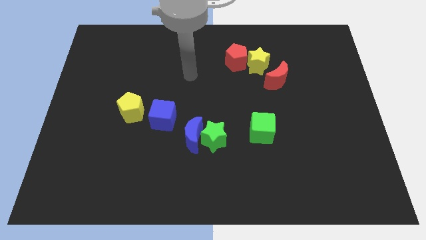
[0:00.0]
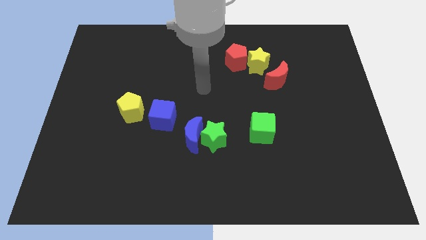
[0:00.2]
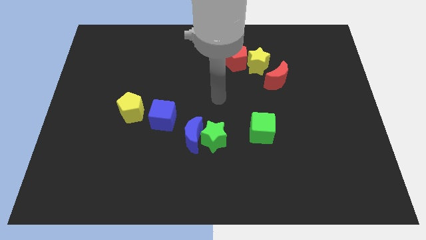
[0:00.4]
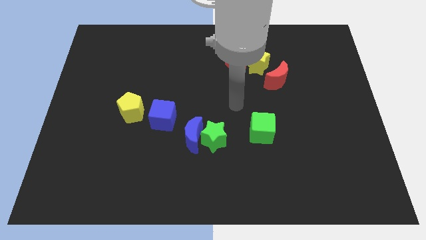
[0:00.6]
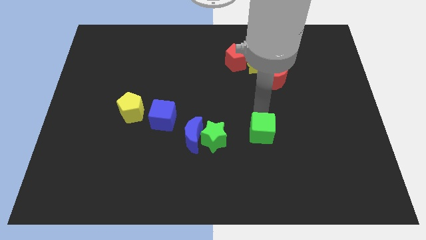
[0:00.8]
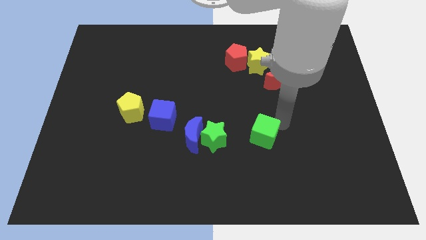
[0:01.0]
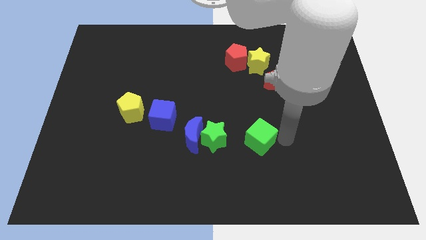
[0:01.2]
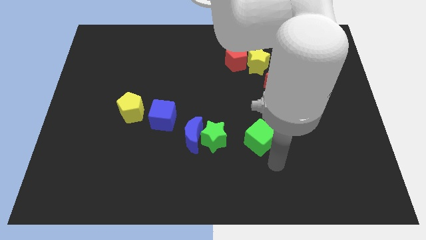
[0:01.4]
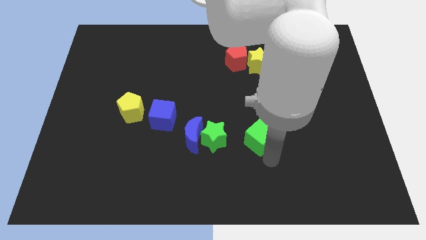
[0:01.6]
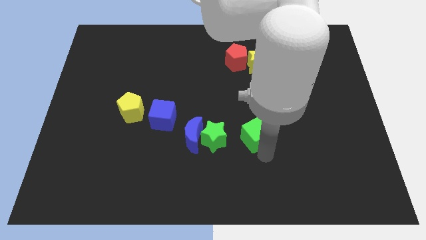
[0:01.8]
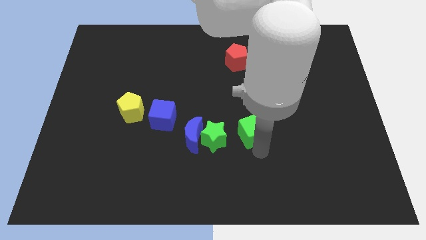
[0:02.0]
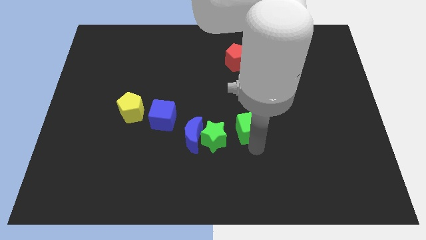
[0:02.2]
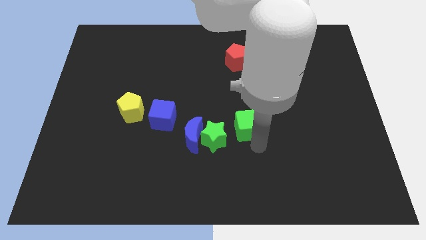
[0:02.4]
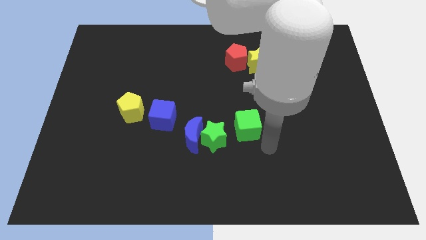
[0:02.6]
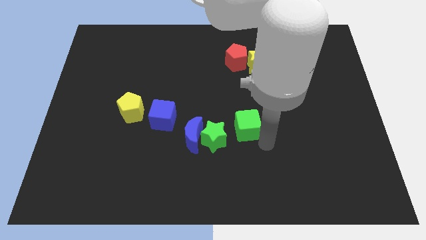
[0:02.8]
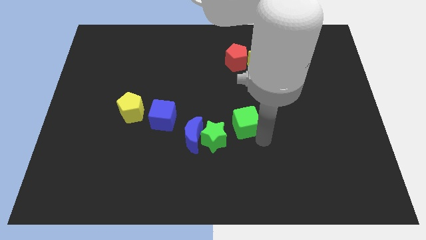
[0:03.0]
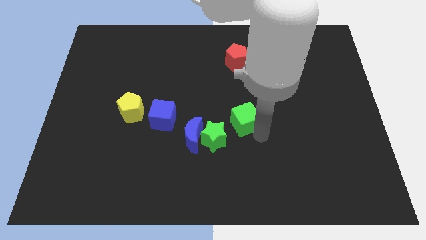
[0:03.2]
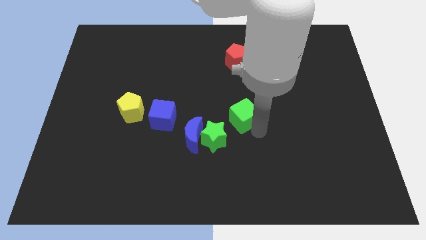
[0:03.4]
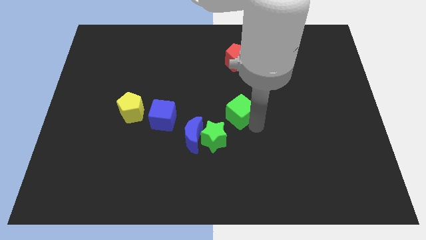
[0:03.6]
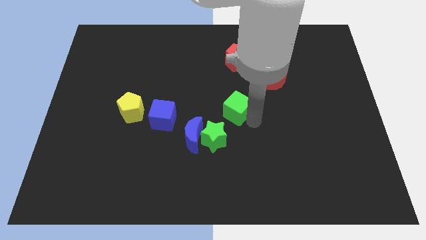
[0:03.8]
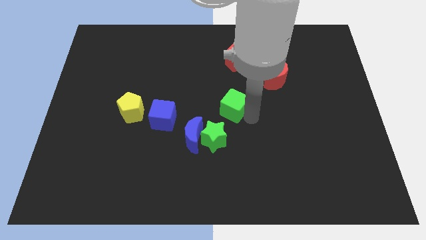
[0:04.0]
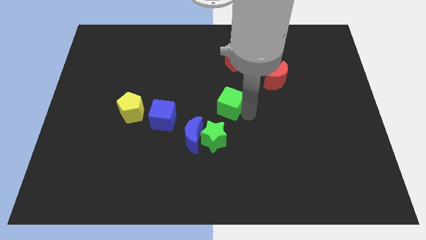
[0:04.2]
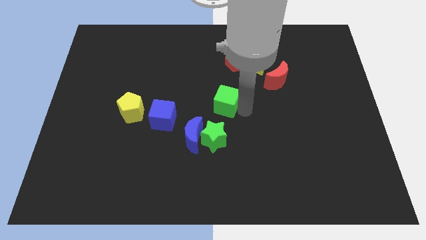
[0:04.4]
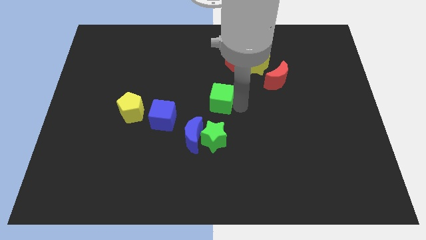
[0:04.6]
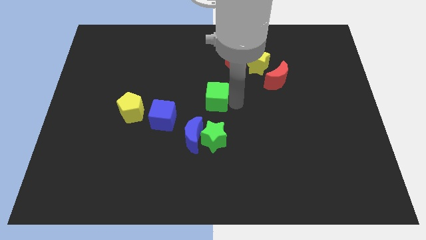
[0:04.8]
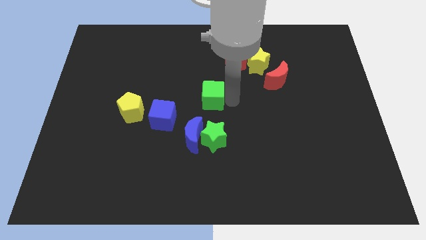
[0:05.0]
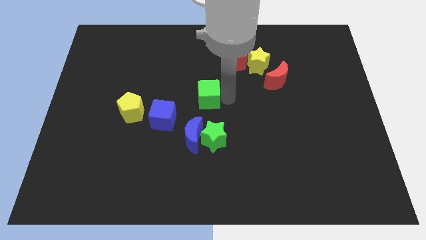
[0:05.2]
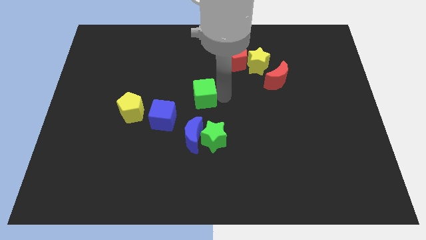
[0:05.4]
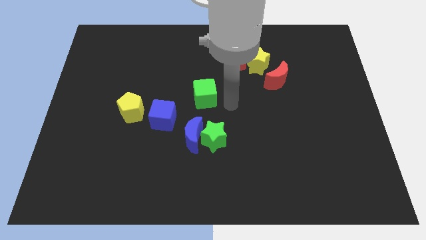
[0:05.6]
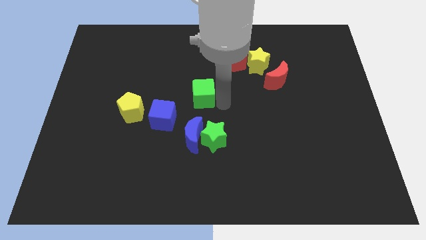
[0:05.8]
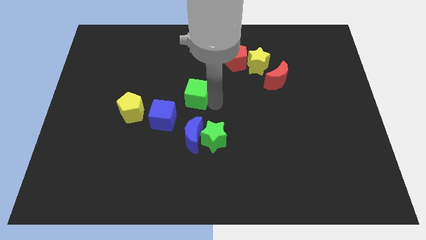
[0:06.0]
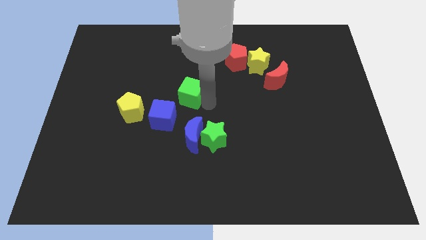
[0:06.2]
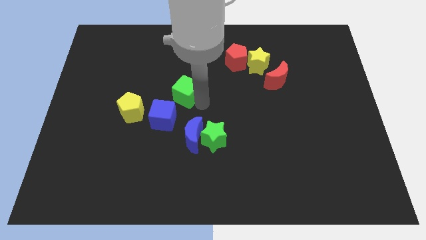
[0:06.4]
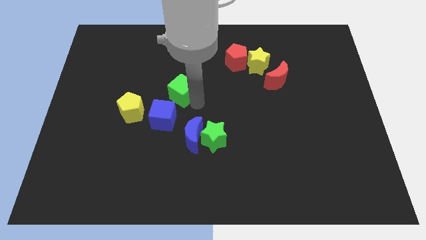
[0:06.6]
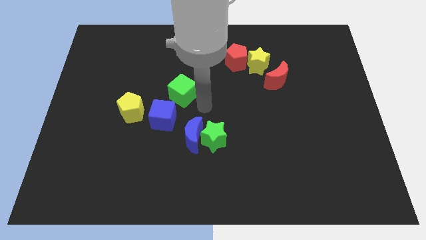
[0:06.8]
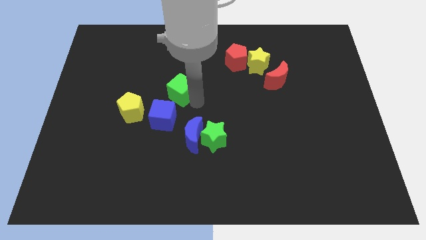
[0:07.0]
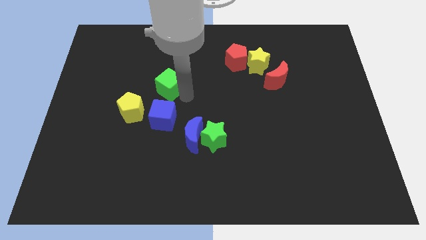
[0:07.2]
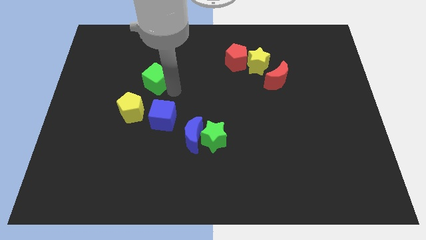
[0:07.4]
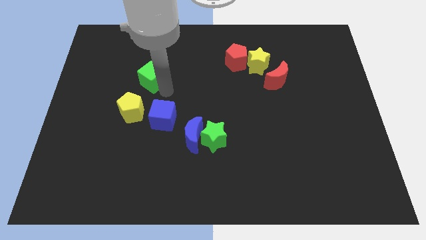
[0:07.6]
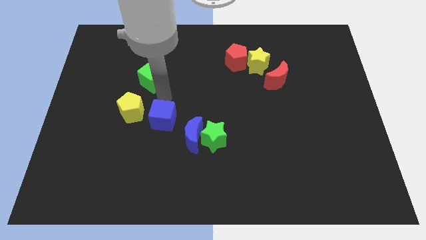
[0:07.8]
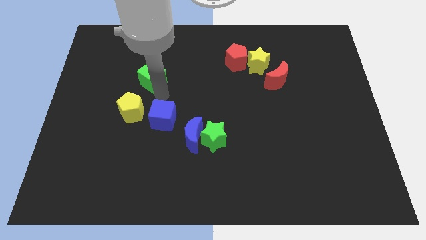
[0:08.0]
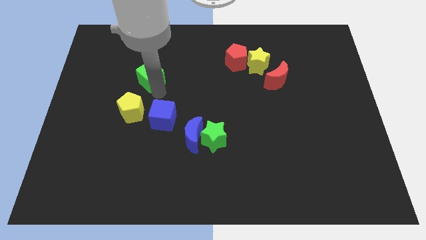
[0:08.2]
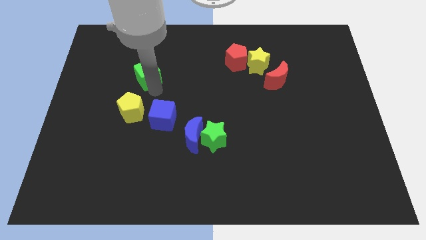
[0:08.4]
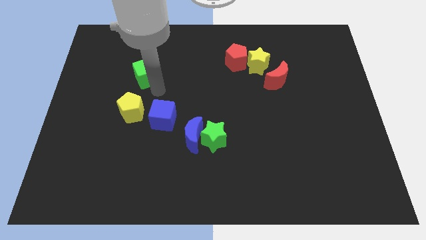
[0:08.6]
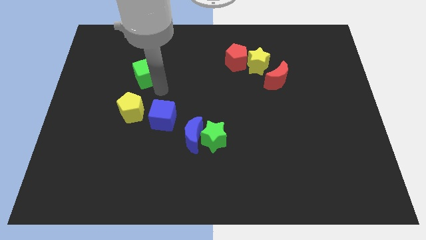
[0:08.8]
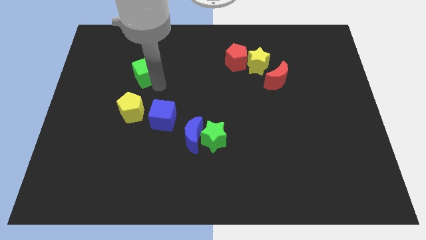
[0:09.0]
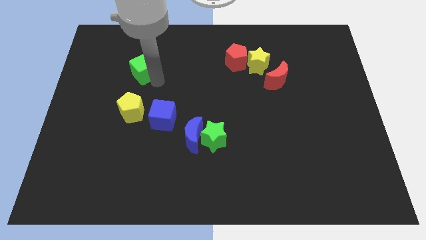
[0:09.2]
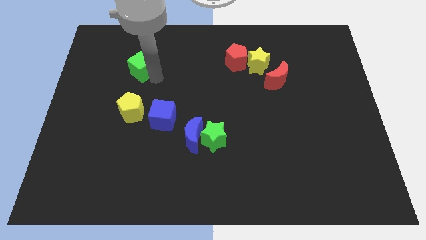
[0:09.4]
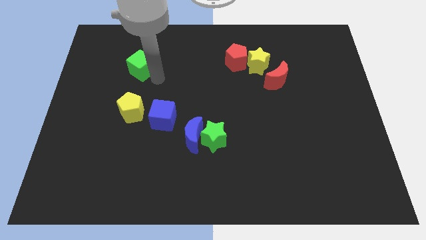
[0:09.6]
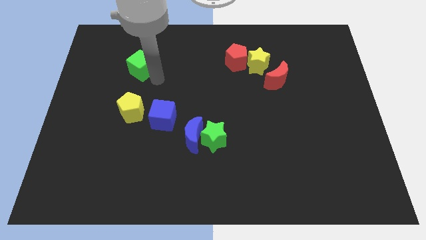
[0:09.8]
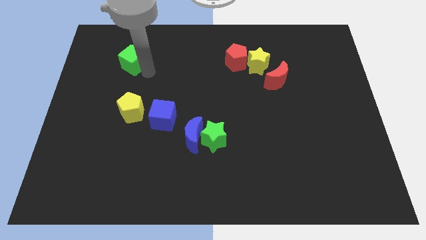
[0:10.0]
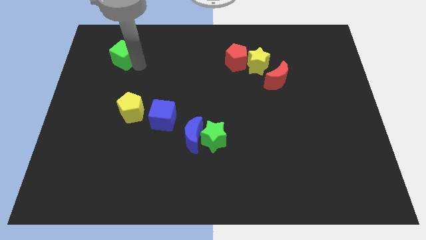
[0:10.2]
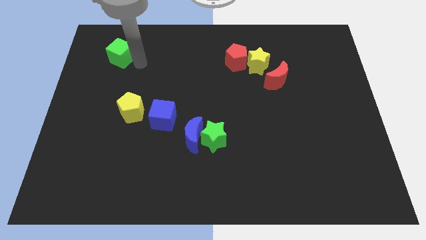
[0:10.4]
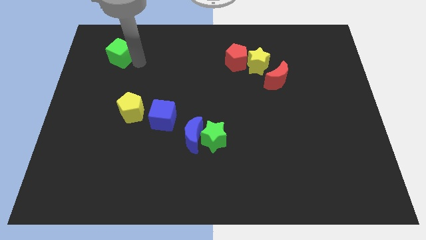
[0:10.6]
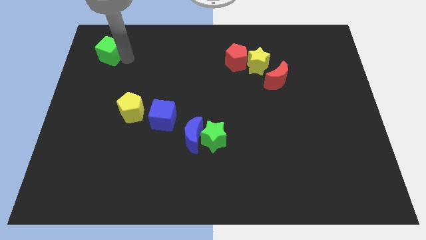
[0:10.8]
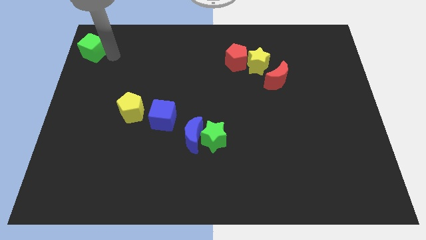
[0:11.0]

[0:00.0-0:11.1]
push the green cube to the upper left corner
